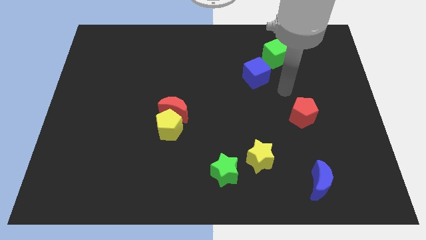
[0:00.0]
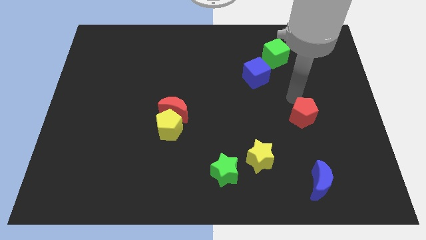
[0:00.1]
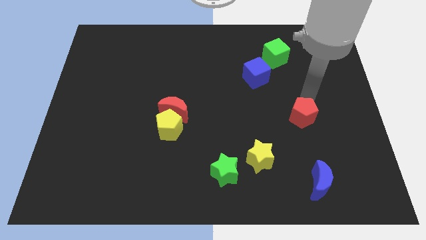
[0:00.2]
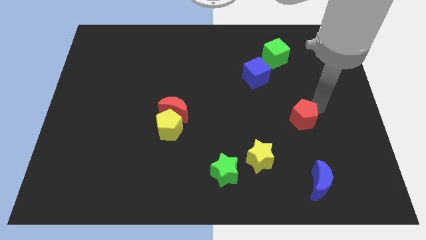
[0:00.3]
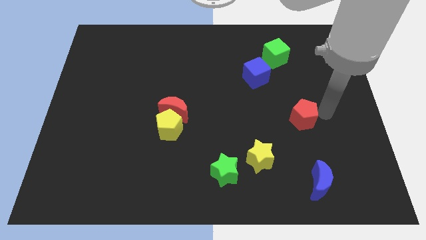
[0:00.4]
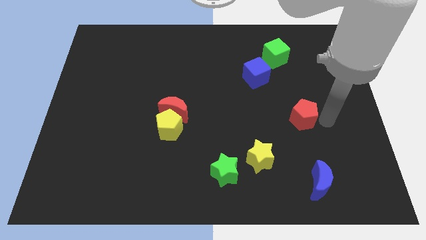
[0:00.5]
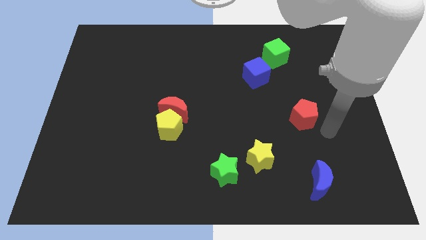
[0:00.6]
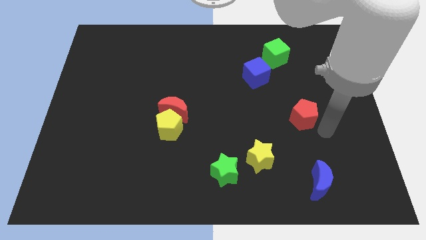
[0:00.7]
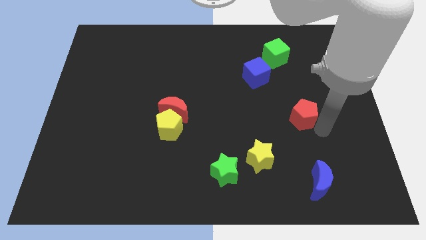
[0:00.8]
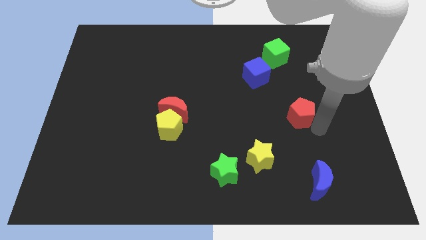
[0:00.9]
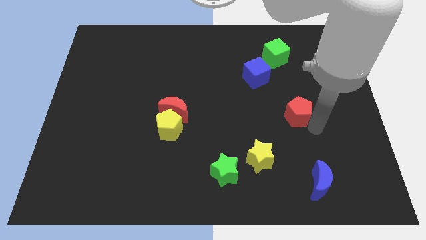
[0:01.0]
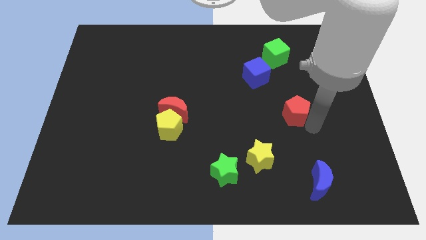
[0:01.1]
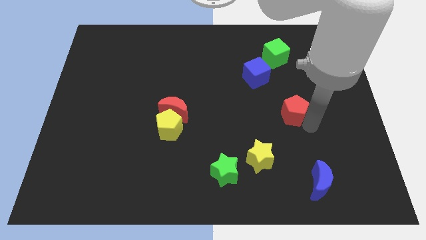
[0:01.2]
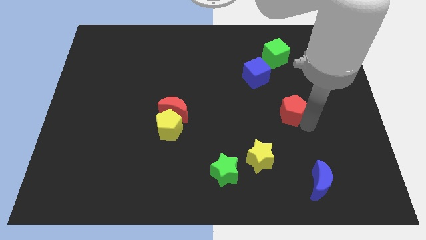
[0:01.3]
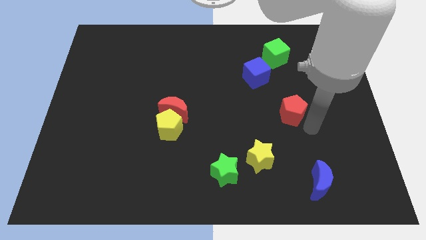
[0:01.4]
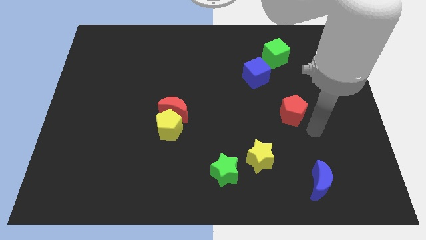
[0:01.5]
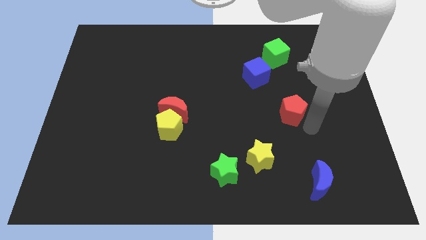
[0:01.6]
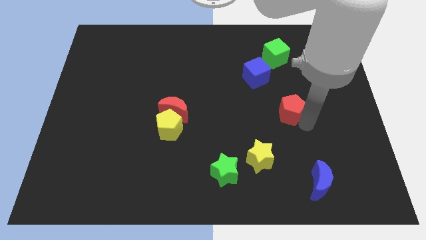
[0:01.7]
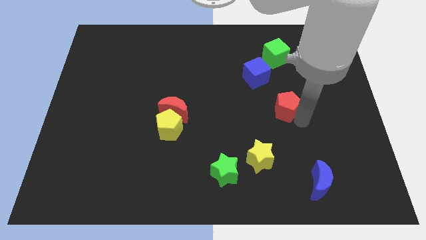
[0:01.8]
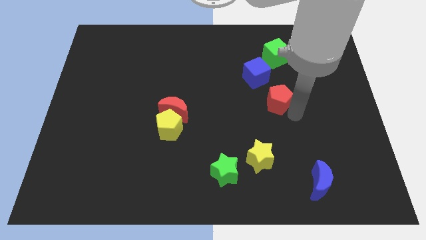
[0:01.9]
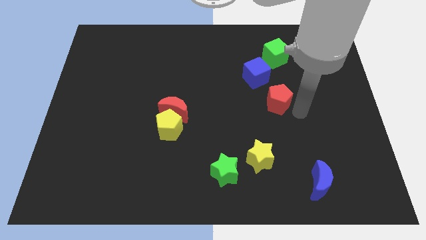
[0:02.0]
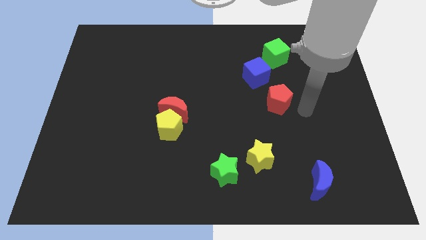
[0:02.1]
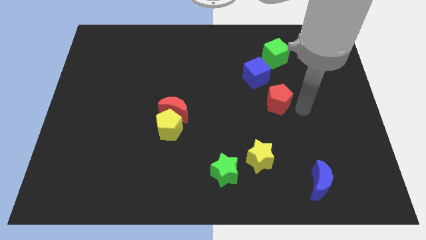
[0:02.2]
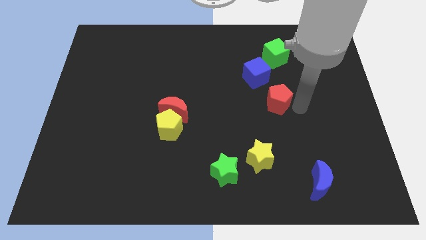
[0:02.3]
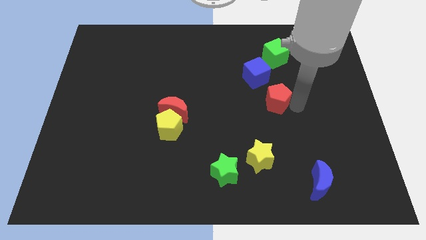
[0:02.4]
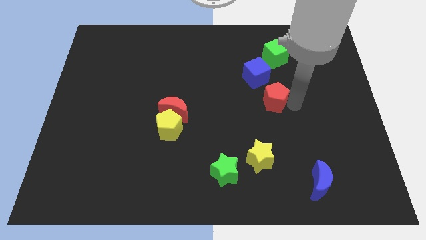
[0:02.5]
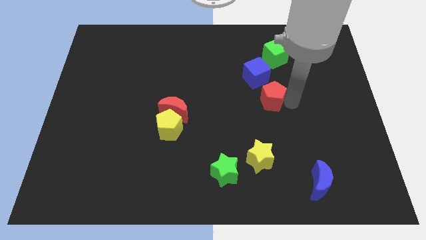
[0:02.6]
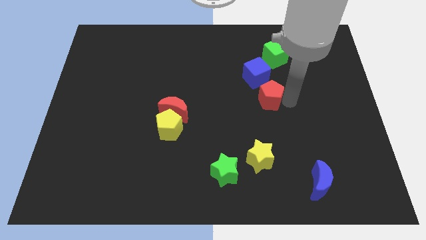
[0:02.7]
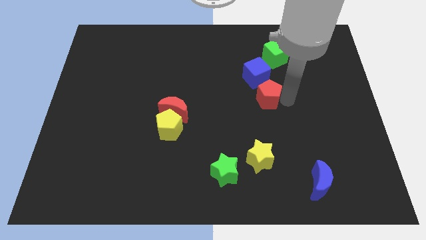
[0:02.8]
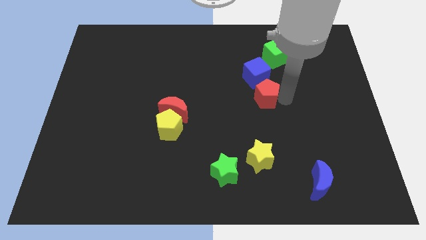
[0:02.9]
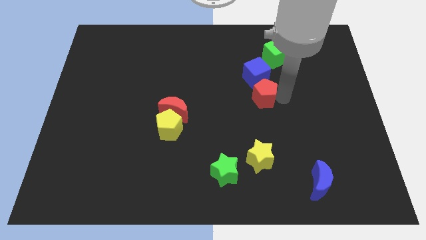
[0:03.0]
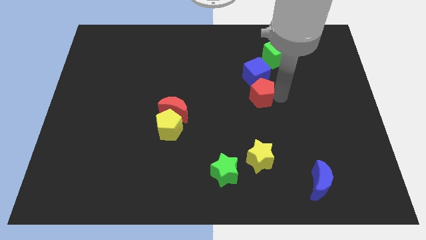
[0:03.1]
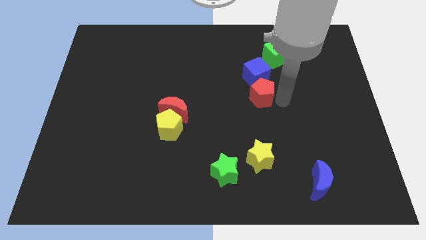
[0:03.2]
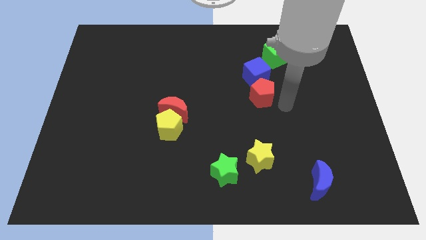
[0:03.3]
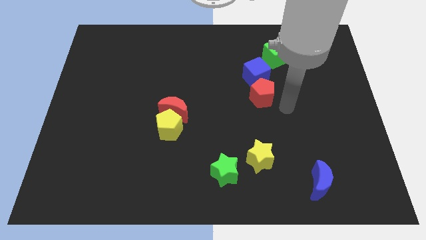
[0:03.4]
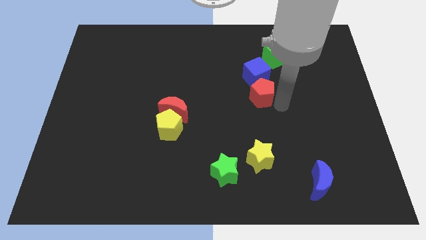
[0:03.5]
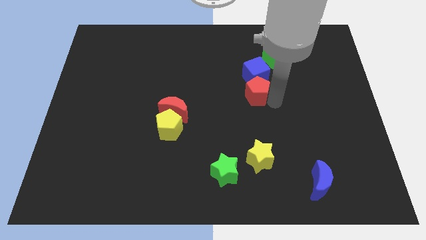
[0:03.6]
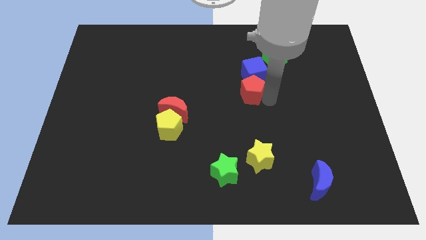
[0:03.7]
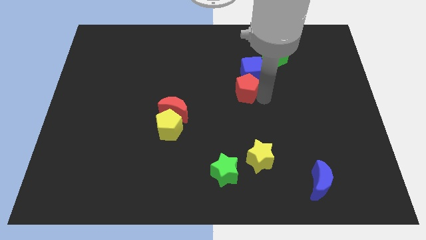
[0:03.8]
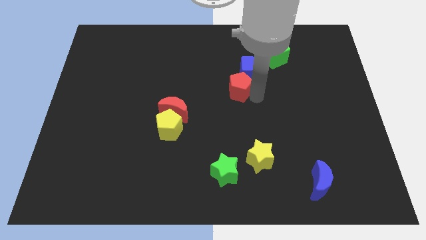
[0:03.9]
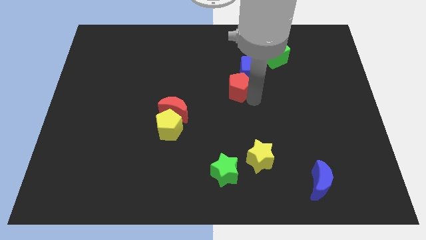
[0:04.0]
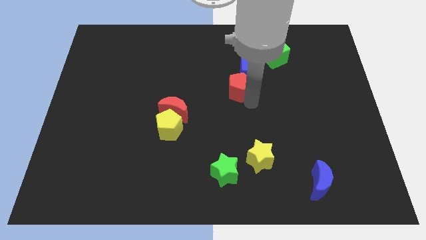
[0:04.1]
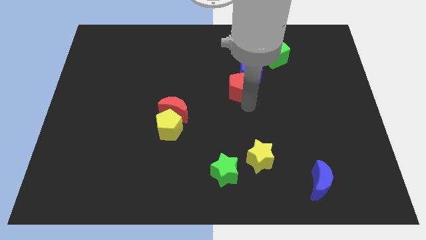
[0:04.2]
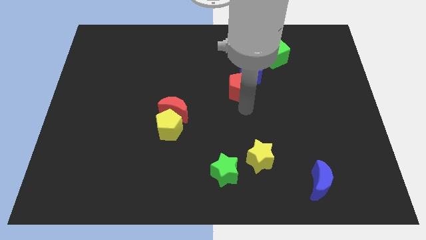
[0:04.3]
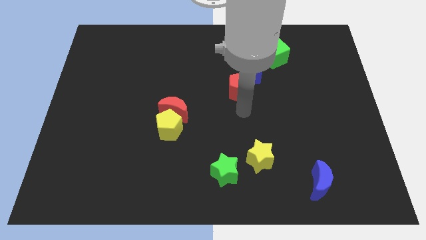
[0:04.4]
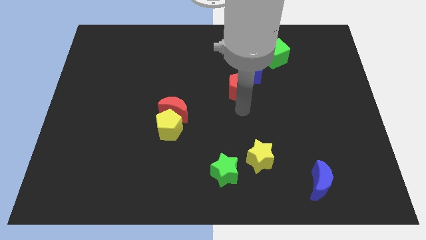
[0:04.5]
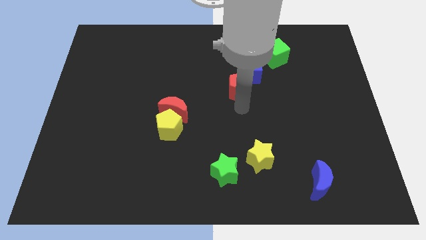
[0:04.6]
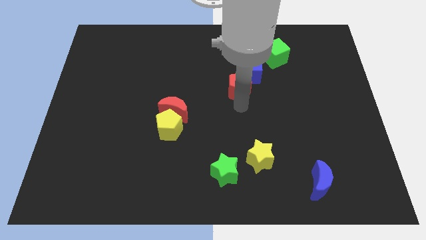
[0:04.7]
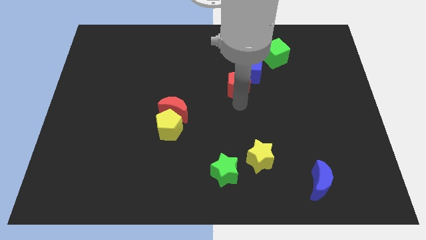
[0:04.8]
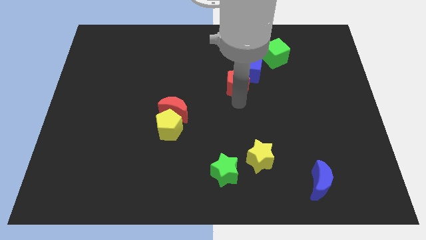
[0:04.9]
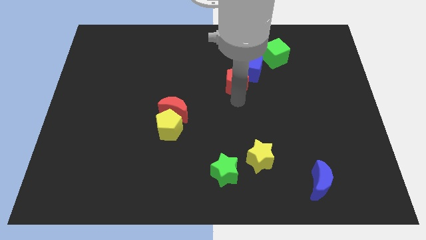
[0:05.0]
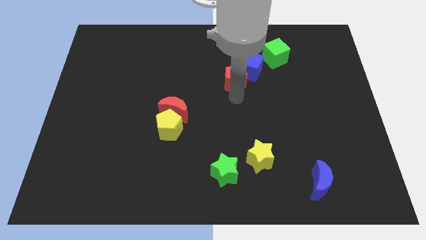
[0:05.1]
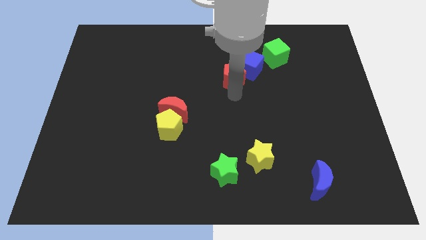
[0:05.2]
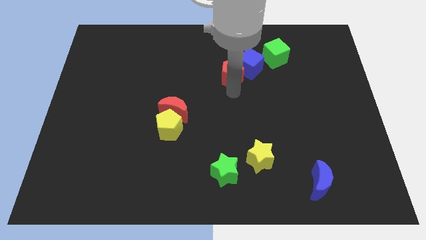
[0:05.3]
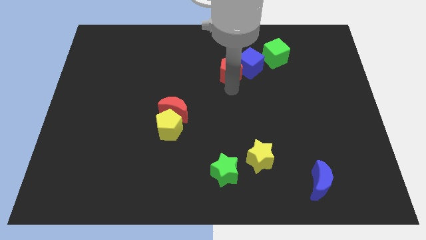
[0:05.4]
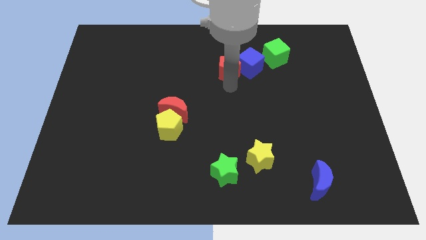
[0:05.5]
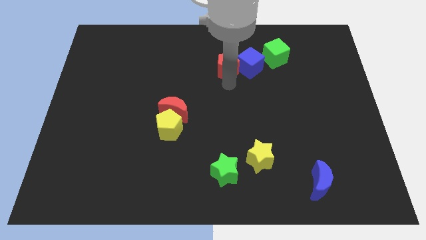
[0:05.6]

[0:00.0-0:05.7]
push the red pentagon to the top left side of the blue cube

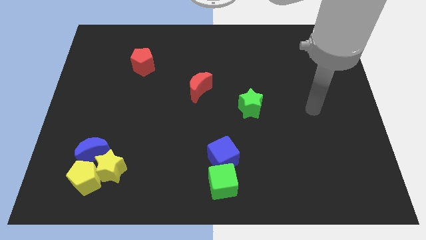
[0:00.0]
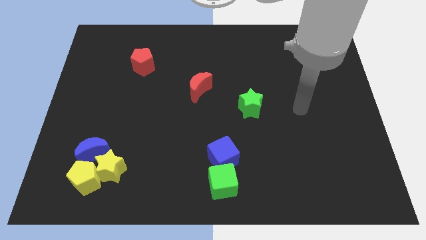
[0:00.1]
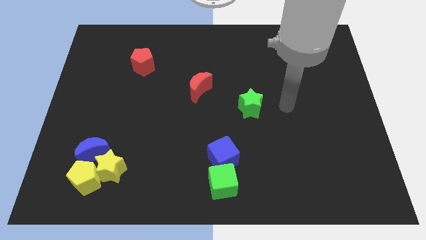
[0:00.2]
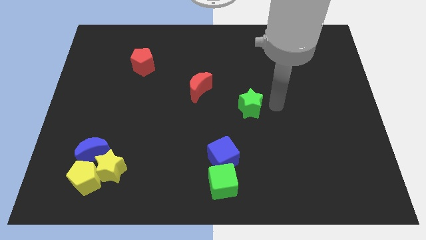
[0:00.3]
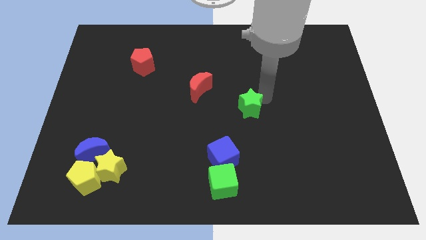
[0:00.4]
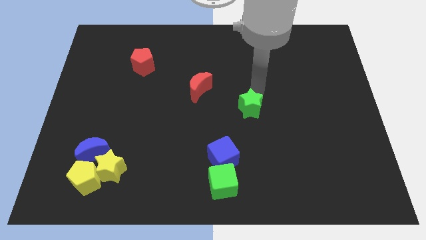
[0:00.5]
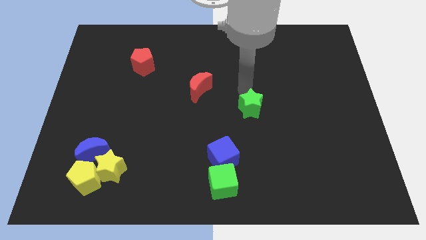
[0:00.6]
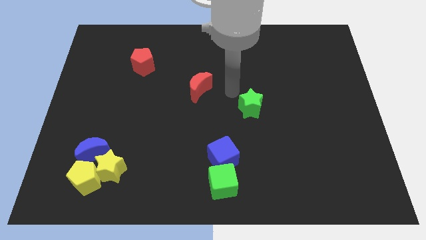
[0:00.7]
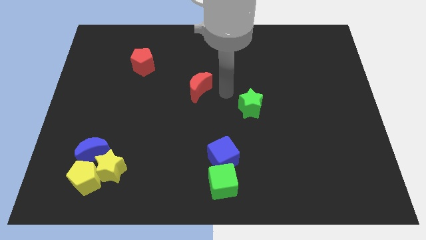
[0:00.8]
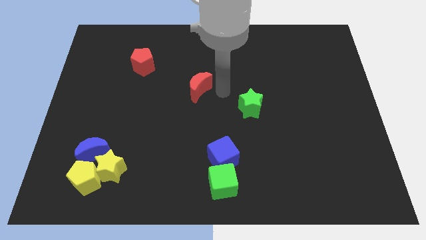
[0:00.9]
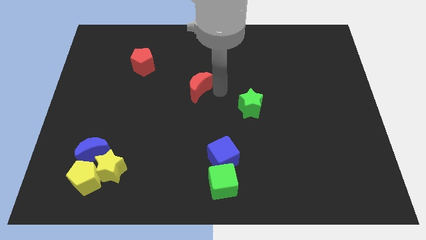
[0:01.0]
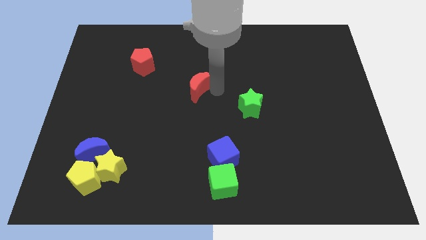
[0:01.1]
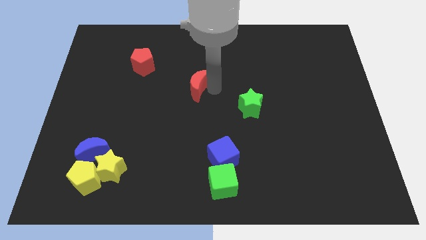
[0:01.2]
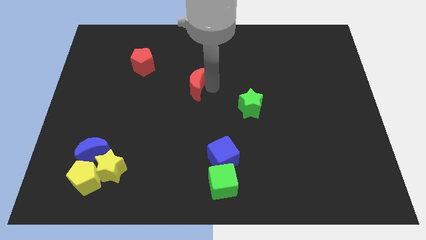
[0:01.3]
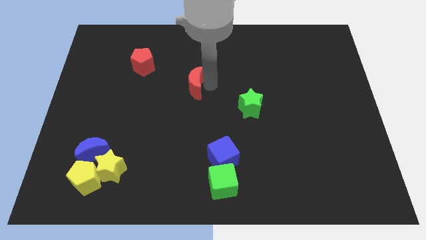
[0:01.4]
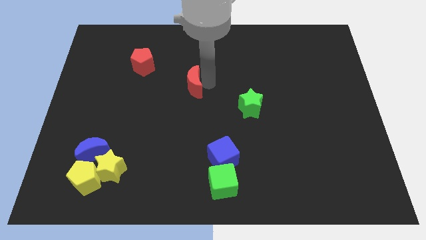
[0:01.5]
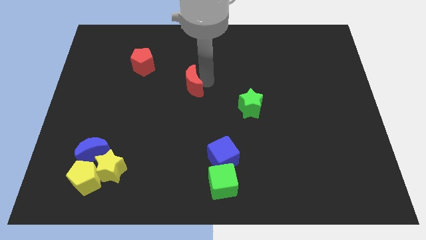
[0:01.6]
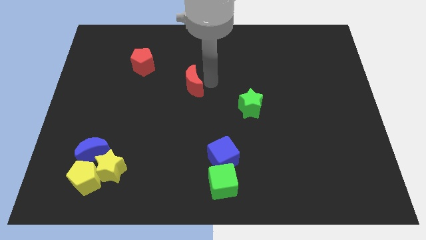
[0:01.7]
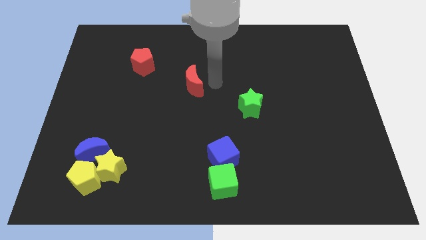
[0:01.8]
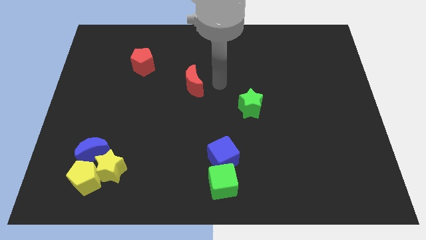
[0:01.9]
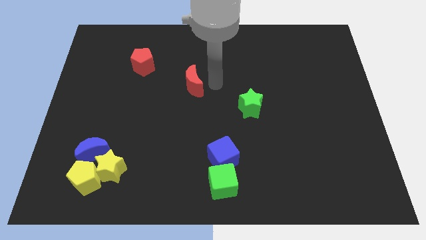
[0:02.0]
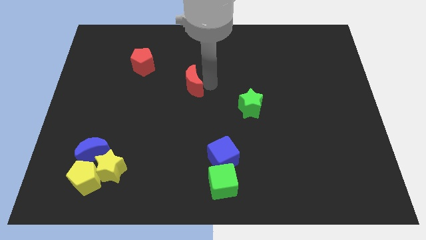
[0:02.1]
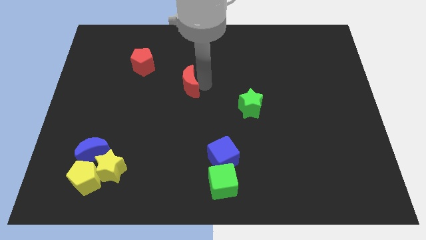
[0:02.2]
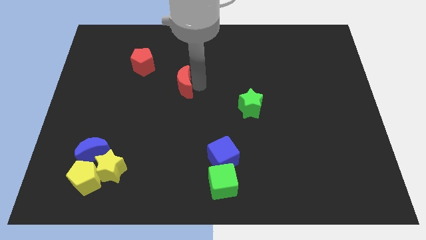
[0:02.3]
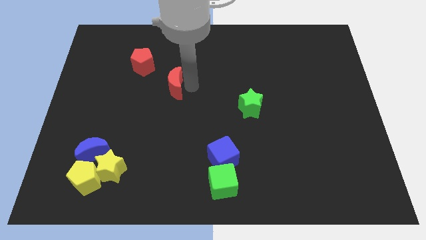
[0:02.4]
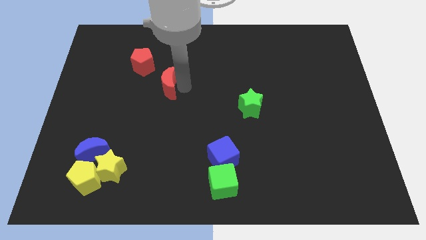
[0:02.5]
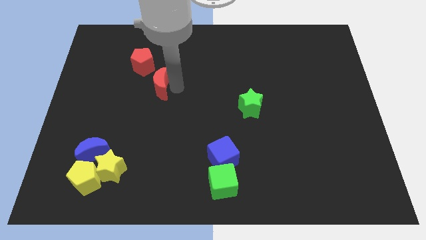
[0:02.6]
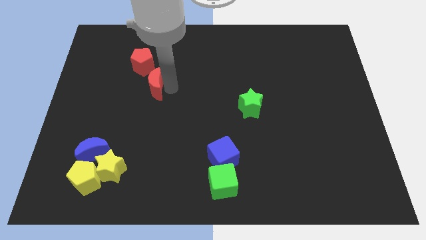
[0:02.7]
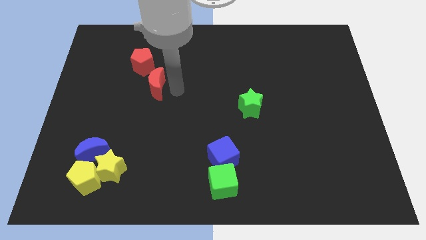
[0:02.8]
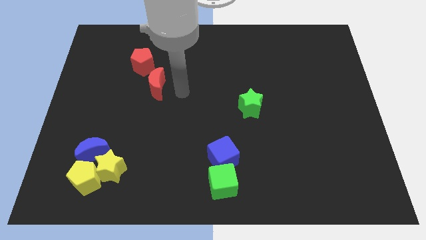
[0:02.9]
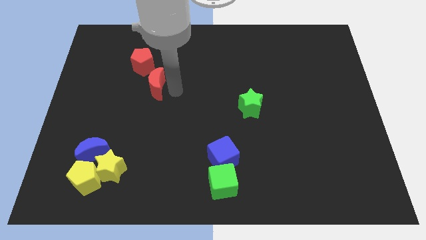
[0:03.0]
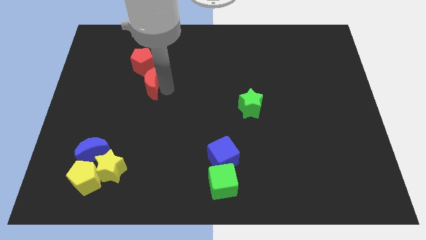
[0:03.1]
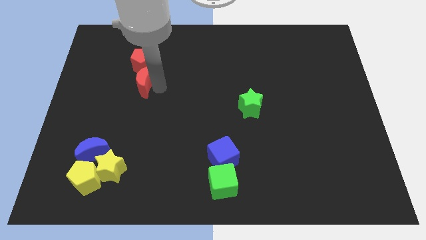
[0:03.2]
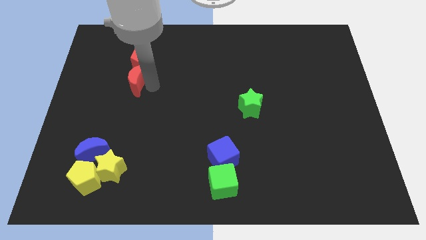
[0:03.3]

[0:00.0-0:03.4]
slide the red moon to the bottom left of the red pentagon
